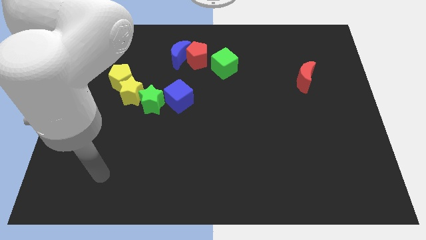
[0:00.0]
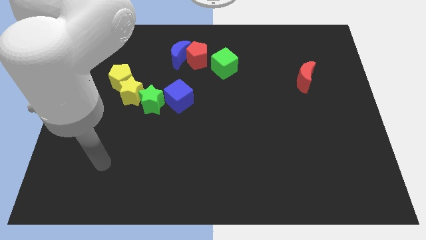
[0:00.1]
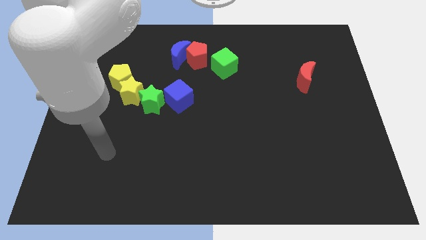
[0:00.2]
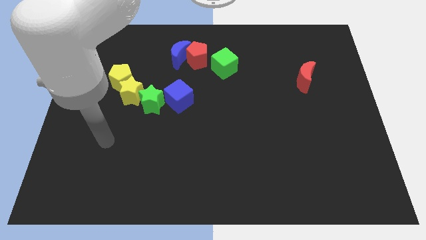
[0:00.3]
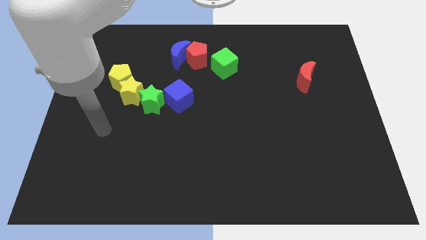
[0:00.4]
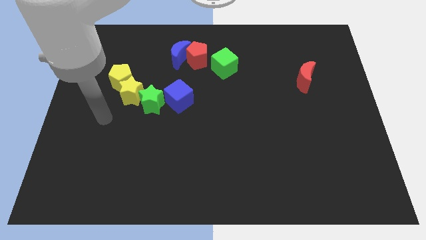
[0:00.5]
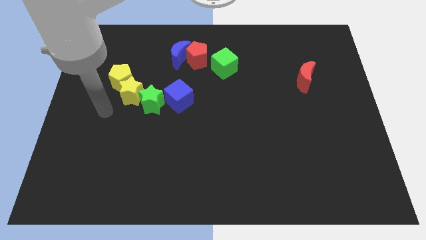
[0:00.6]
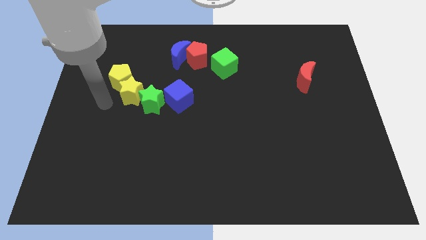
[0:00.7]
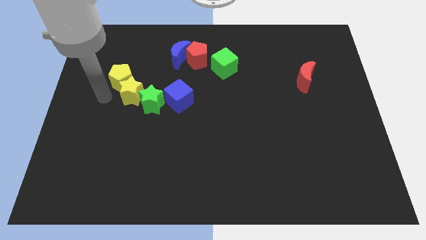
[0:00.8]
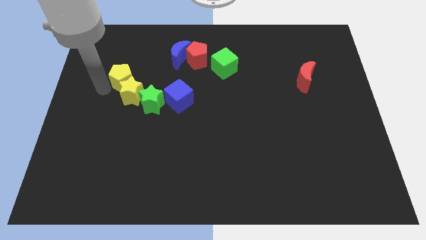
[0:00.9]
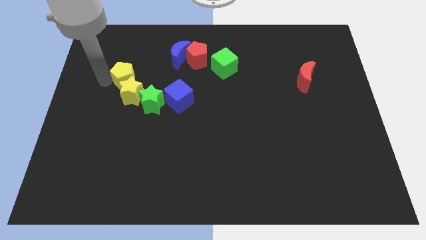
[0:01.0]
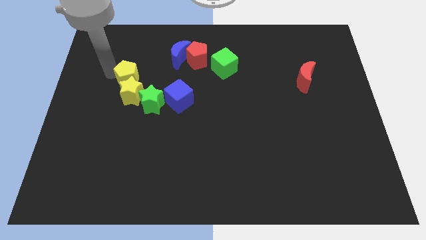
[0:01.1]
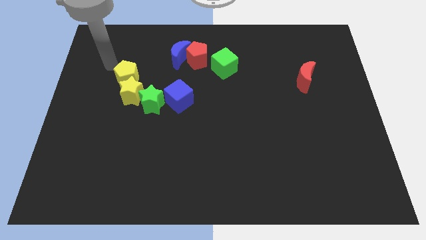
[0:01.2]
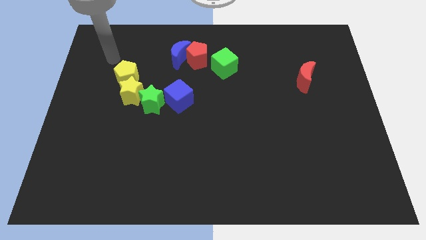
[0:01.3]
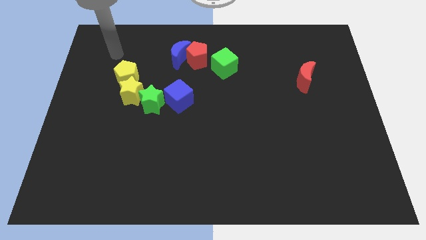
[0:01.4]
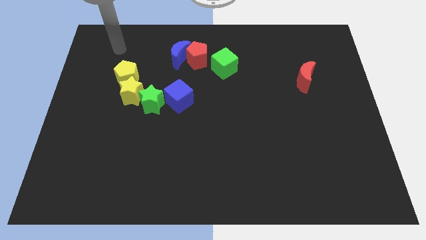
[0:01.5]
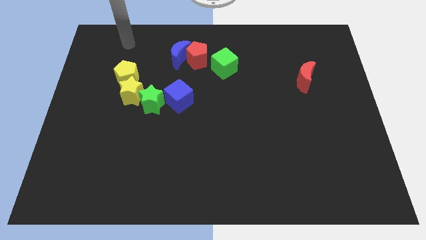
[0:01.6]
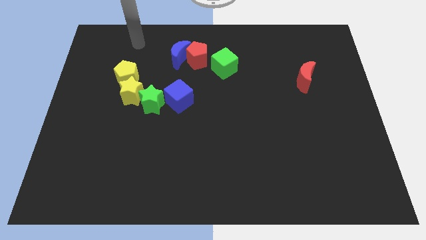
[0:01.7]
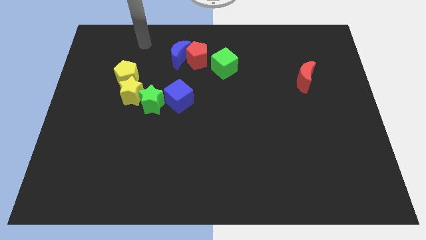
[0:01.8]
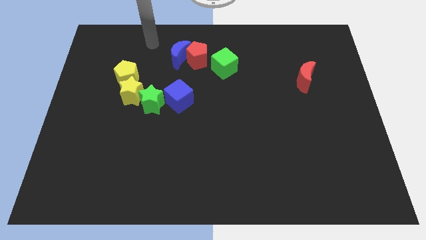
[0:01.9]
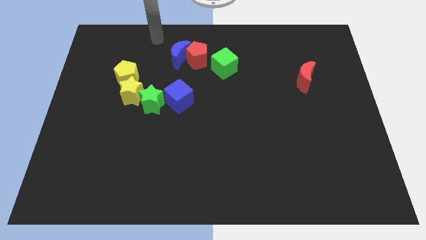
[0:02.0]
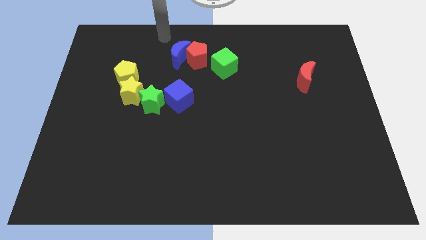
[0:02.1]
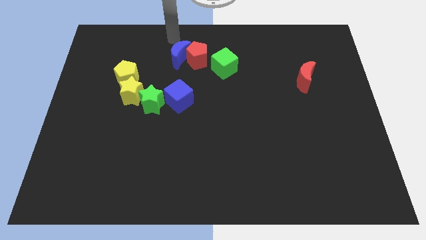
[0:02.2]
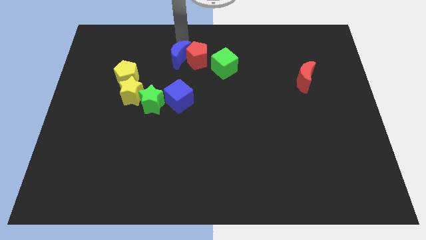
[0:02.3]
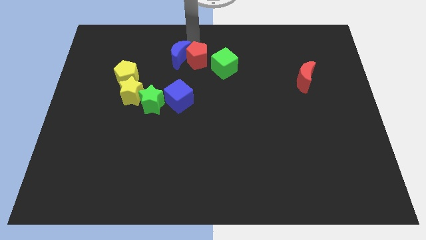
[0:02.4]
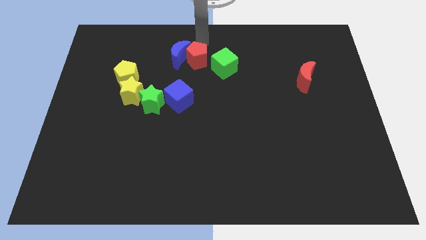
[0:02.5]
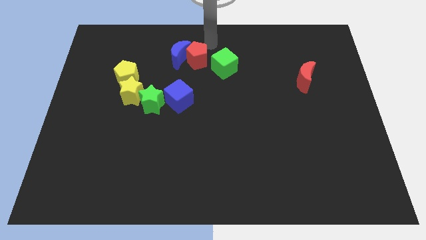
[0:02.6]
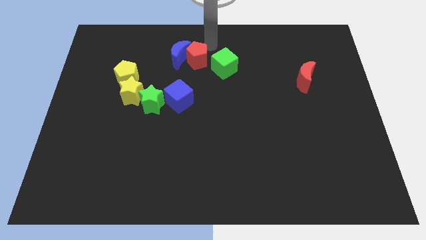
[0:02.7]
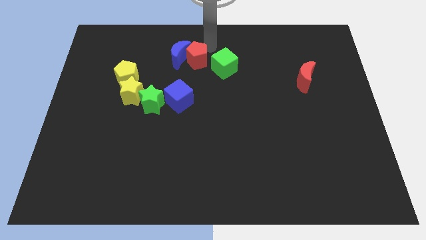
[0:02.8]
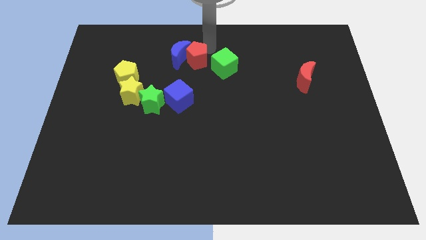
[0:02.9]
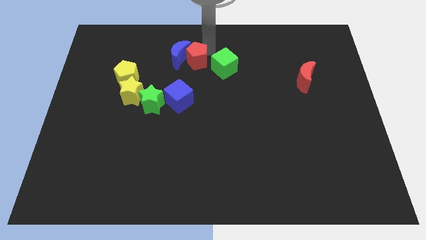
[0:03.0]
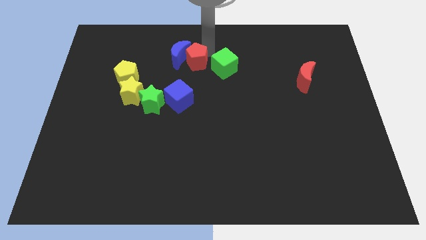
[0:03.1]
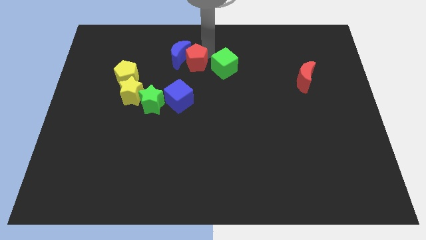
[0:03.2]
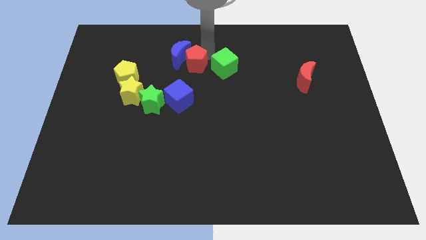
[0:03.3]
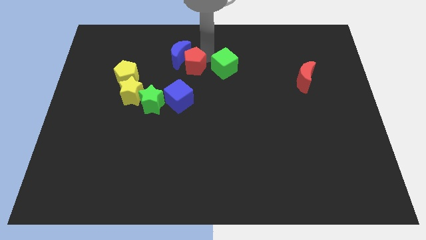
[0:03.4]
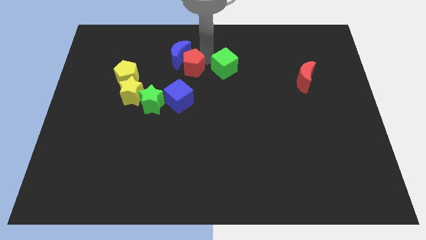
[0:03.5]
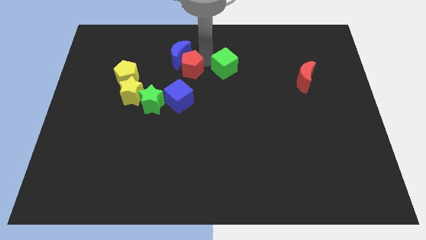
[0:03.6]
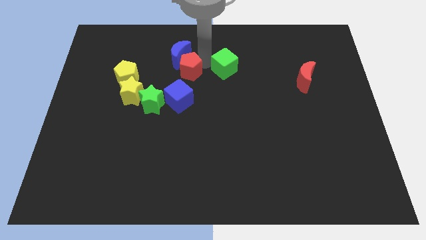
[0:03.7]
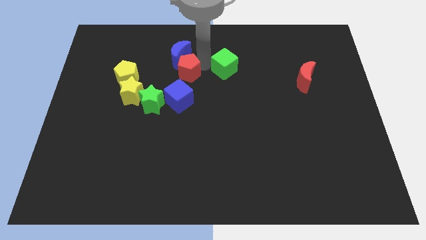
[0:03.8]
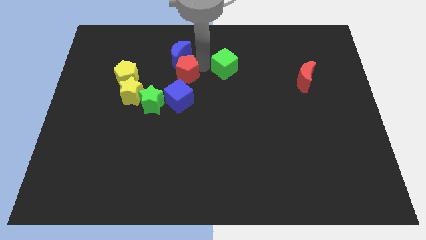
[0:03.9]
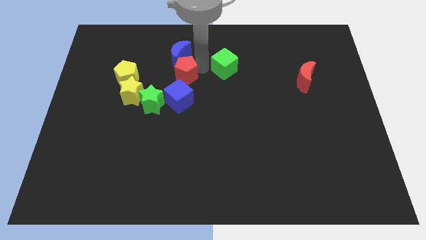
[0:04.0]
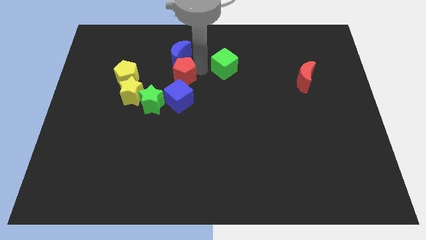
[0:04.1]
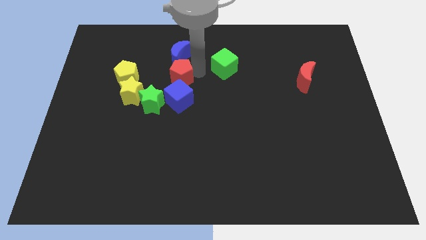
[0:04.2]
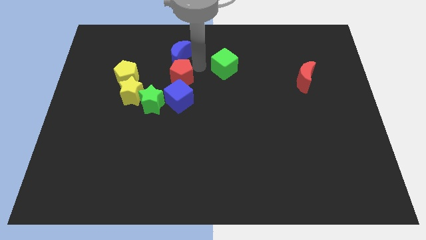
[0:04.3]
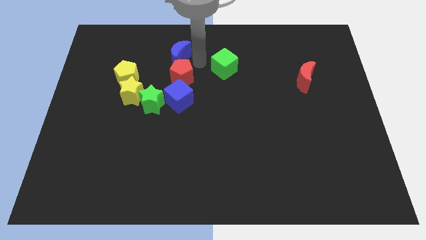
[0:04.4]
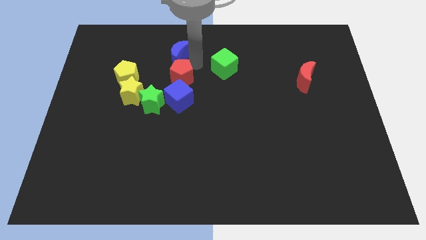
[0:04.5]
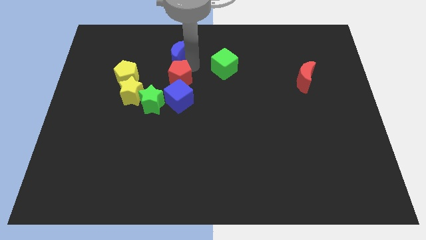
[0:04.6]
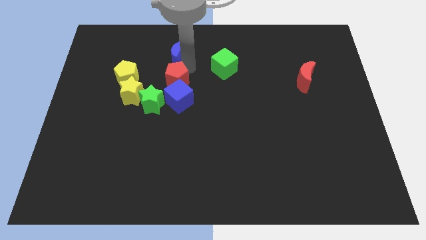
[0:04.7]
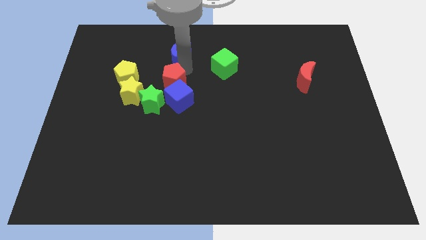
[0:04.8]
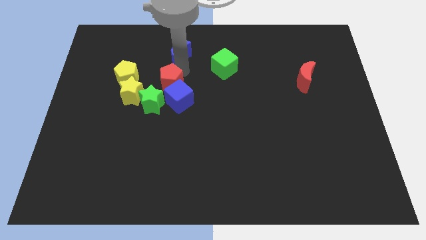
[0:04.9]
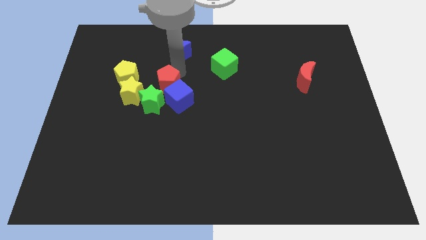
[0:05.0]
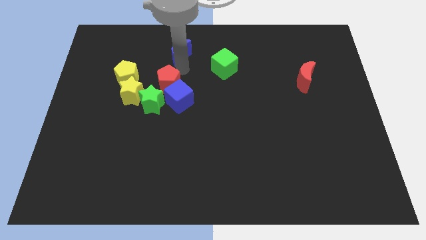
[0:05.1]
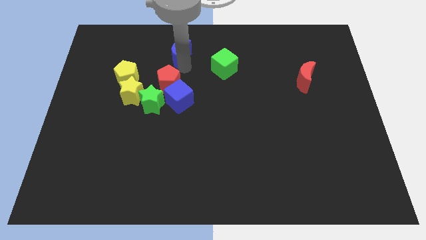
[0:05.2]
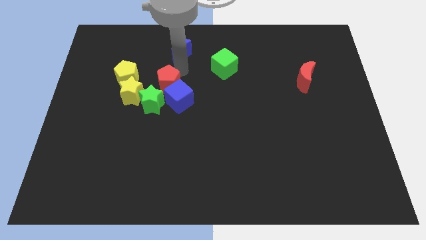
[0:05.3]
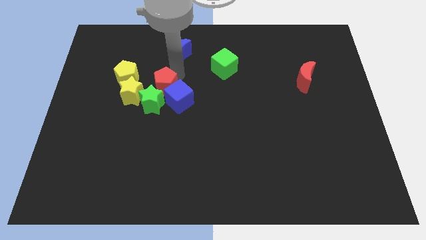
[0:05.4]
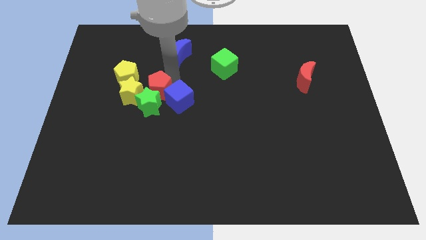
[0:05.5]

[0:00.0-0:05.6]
put the red pentagon close to the green star

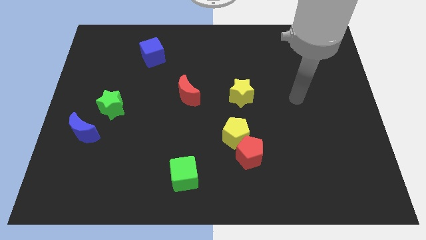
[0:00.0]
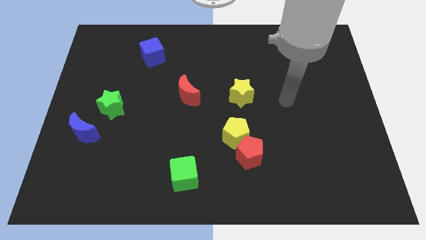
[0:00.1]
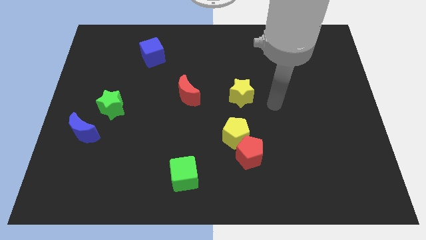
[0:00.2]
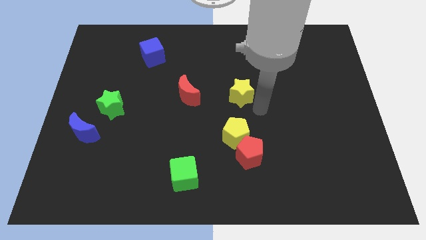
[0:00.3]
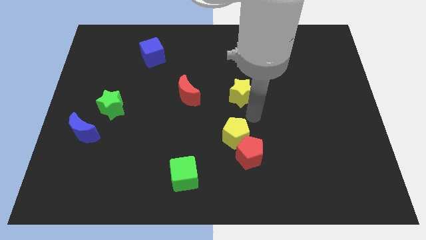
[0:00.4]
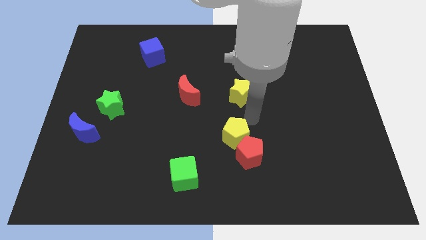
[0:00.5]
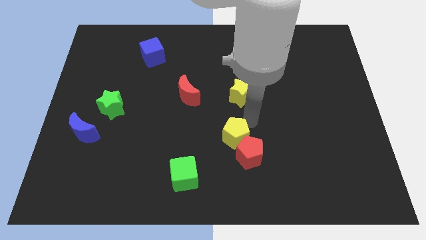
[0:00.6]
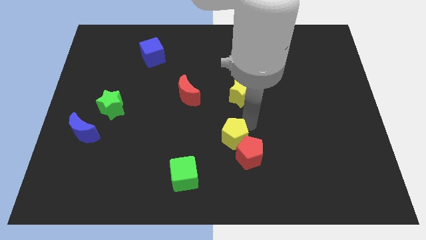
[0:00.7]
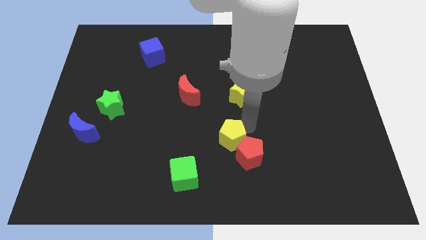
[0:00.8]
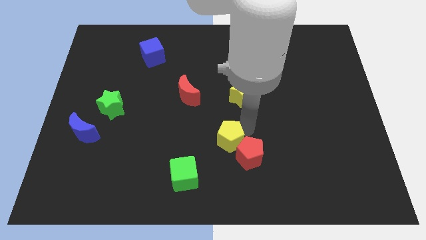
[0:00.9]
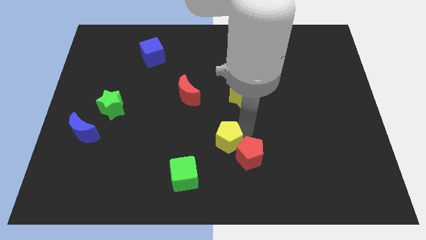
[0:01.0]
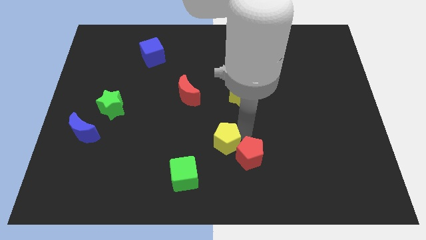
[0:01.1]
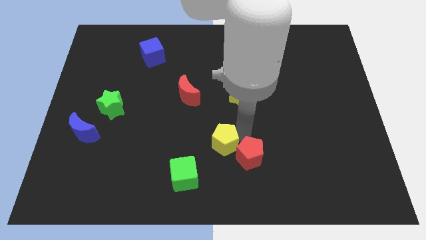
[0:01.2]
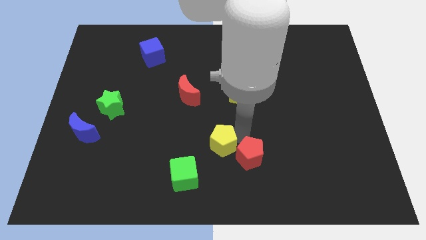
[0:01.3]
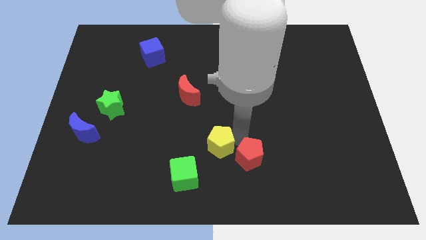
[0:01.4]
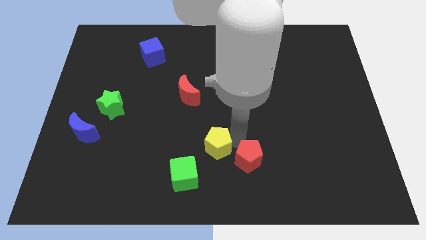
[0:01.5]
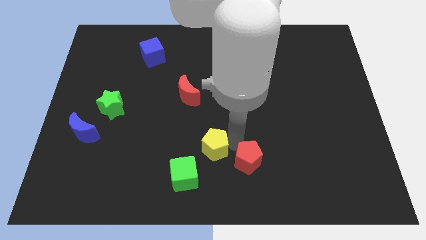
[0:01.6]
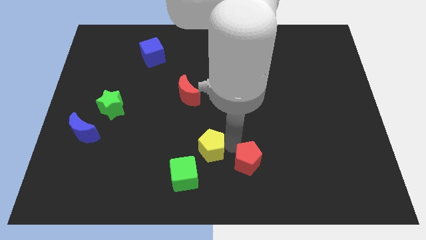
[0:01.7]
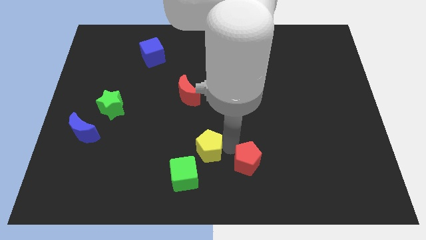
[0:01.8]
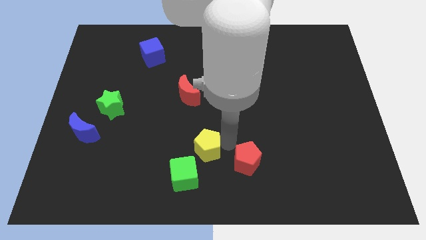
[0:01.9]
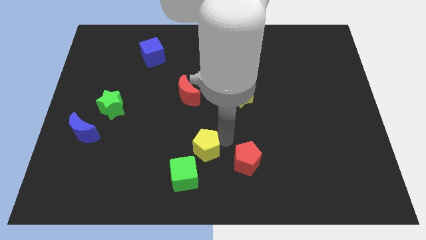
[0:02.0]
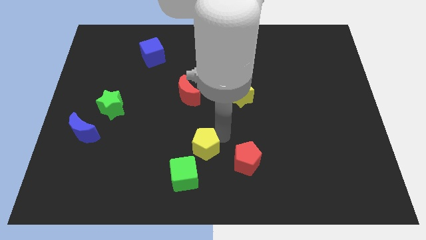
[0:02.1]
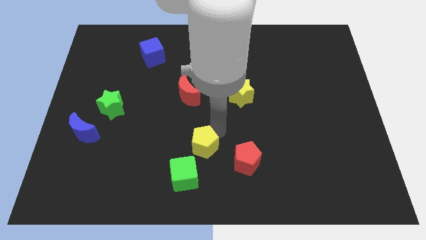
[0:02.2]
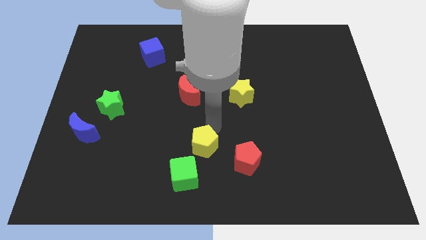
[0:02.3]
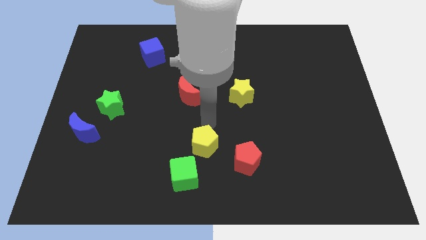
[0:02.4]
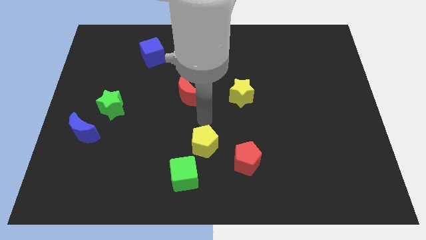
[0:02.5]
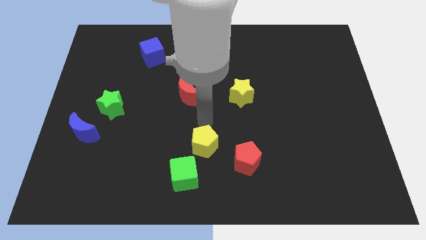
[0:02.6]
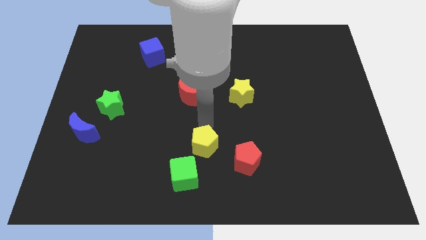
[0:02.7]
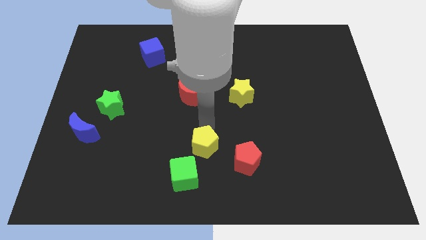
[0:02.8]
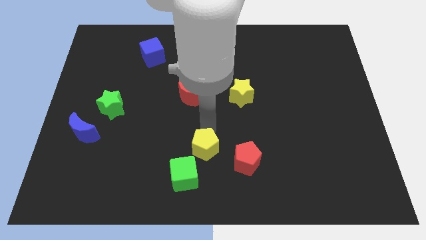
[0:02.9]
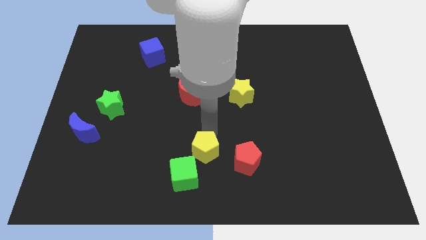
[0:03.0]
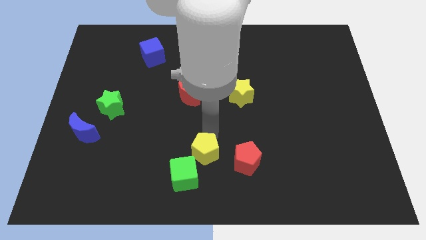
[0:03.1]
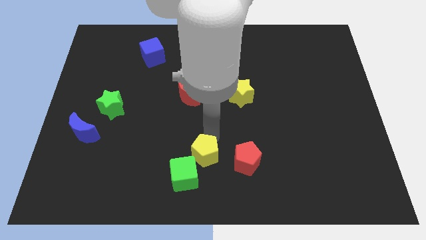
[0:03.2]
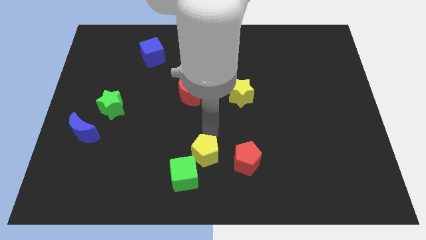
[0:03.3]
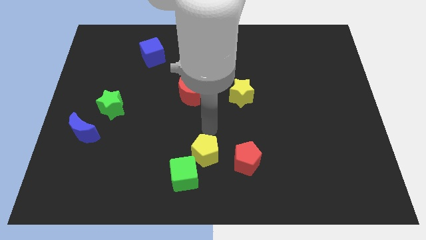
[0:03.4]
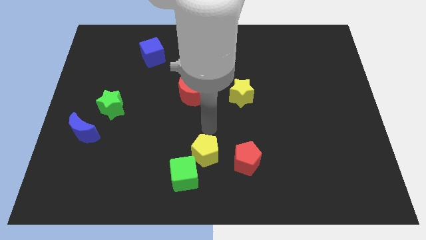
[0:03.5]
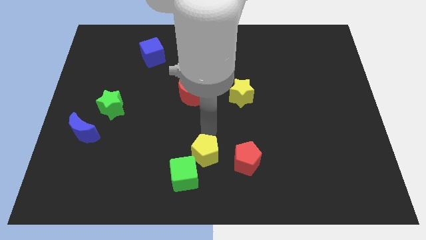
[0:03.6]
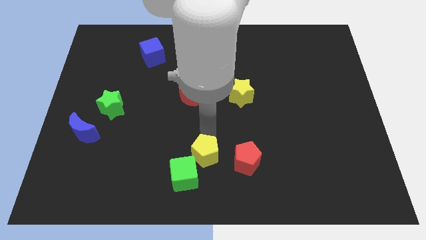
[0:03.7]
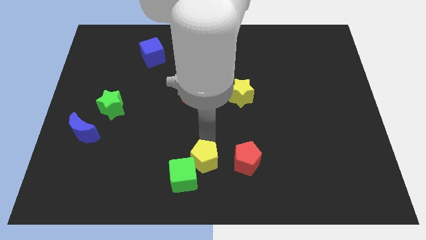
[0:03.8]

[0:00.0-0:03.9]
slide the yellow pentagon towards the green cube
